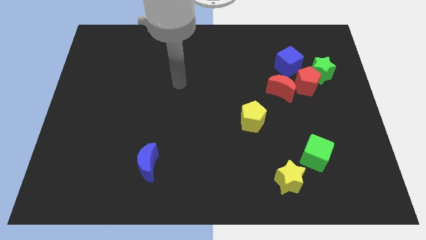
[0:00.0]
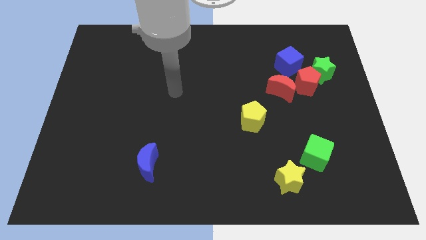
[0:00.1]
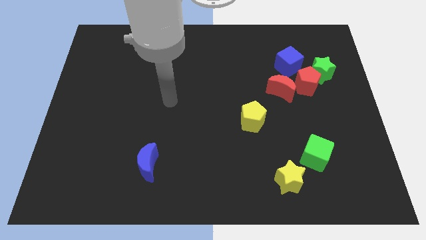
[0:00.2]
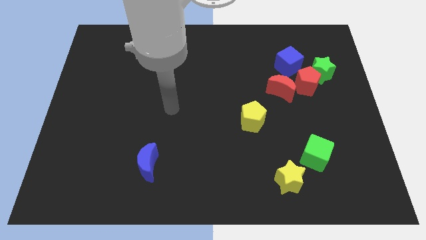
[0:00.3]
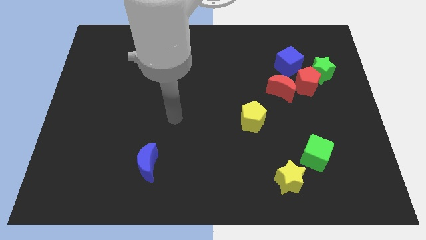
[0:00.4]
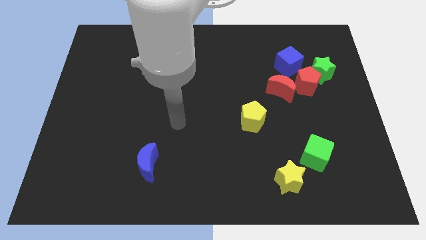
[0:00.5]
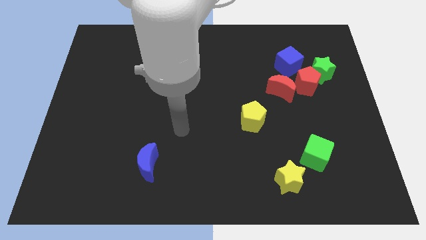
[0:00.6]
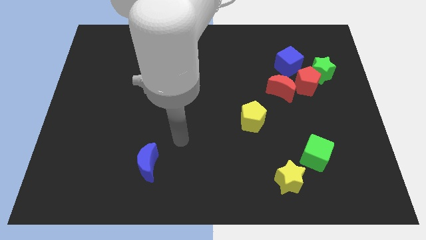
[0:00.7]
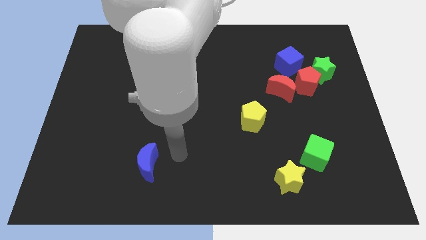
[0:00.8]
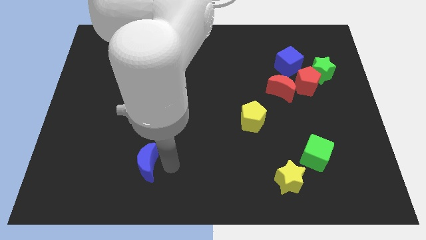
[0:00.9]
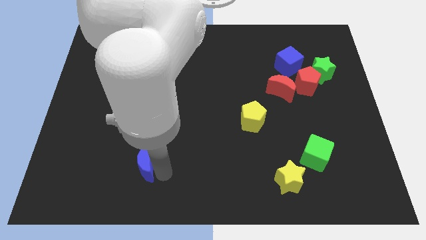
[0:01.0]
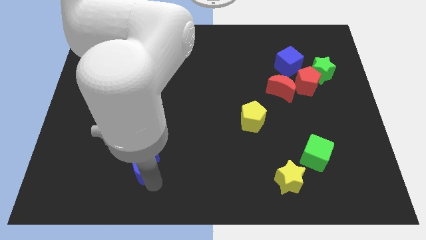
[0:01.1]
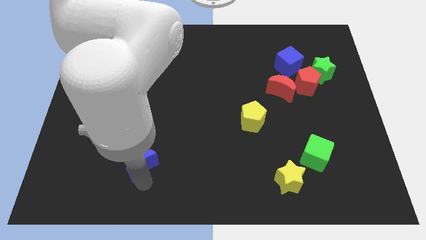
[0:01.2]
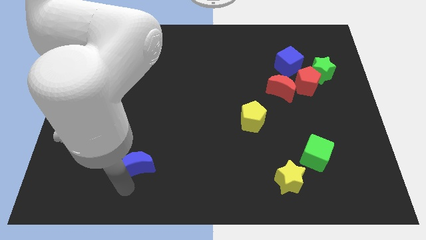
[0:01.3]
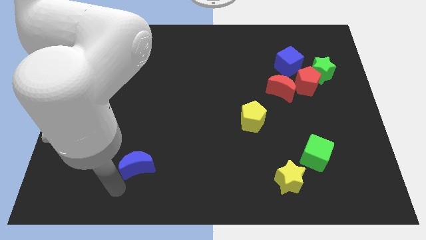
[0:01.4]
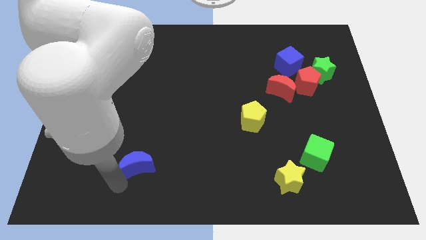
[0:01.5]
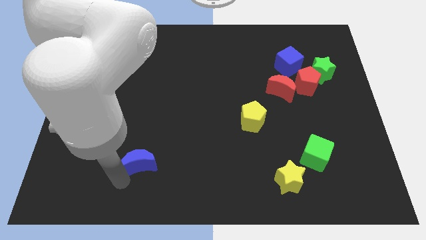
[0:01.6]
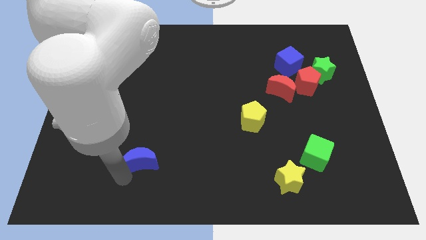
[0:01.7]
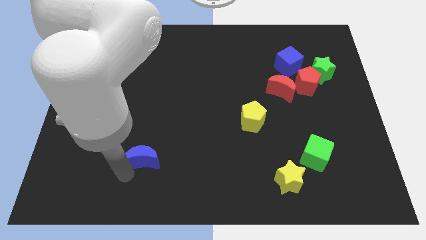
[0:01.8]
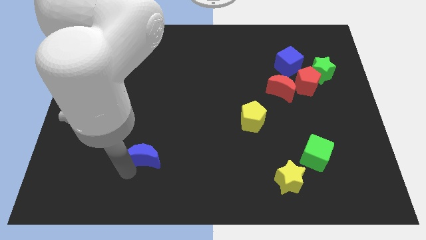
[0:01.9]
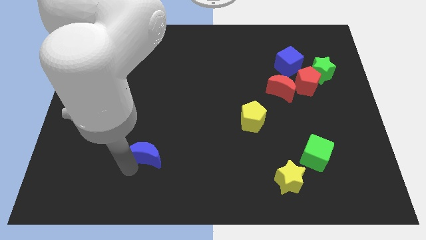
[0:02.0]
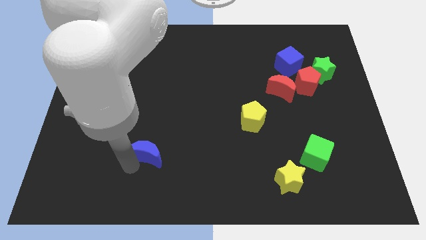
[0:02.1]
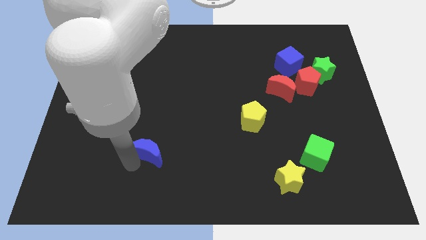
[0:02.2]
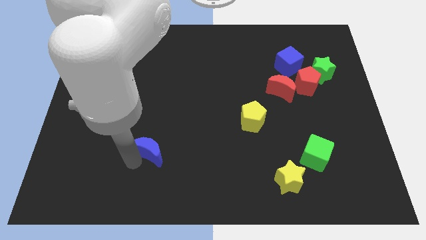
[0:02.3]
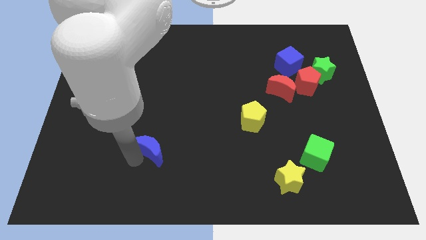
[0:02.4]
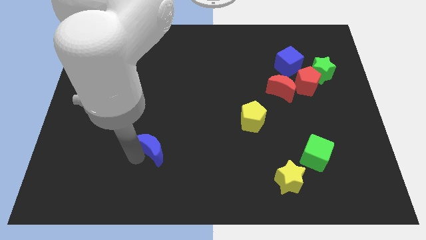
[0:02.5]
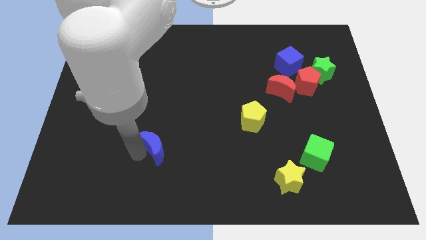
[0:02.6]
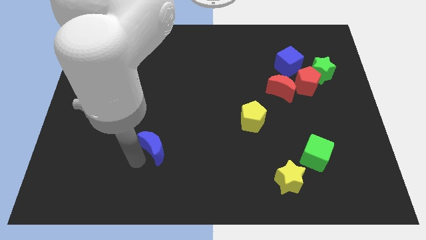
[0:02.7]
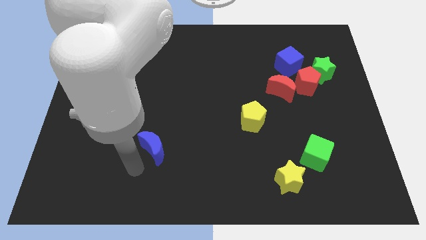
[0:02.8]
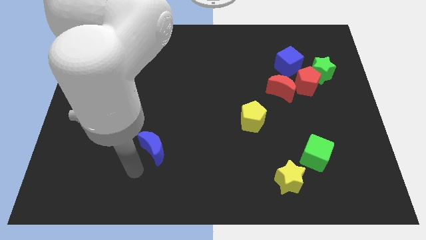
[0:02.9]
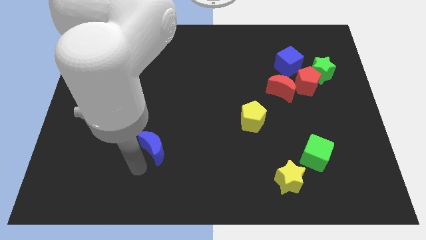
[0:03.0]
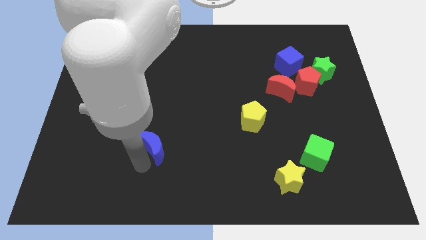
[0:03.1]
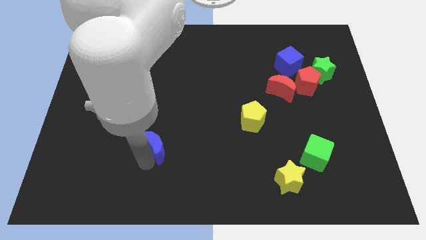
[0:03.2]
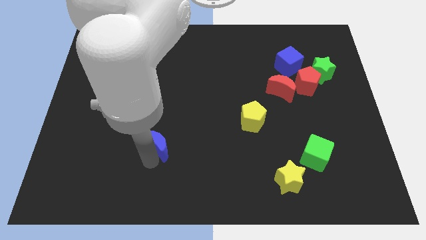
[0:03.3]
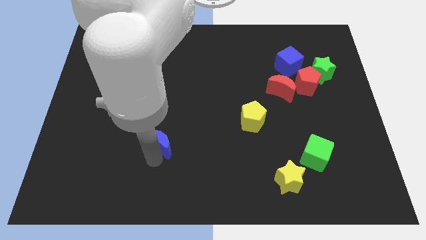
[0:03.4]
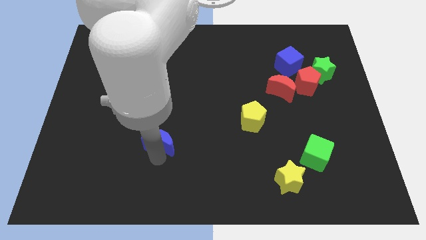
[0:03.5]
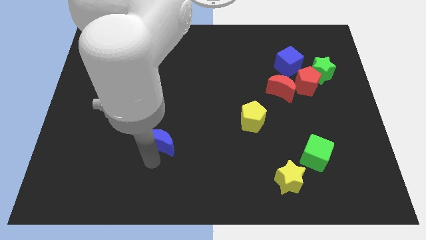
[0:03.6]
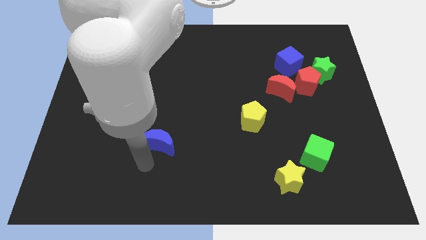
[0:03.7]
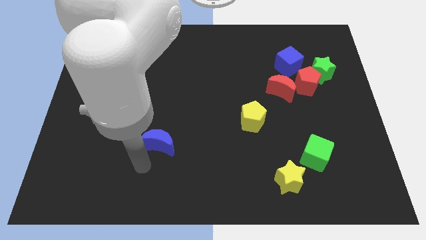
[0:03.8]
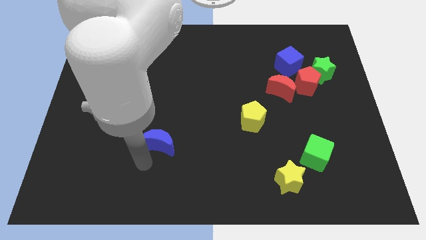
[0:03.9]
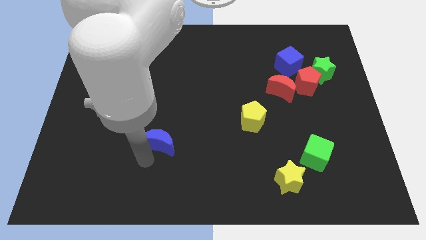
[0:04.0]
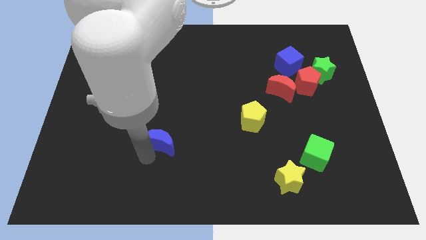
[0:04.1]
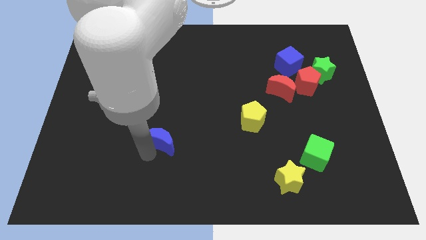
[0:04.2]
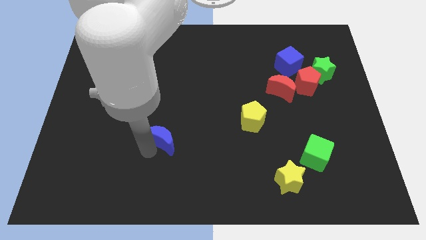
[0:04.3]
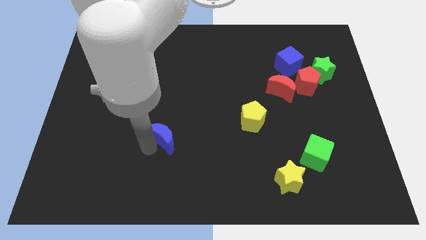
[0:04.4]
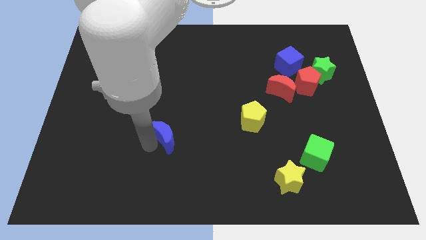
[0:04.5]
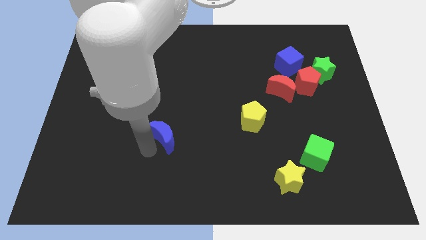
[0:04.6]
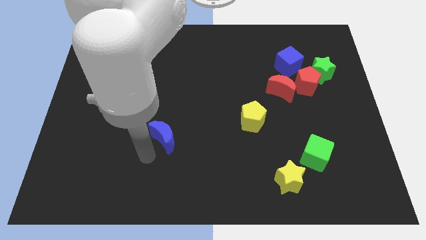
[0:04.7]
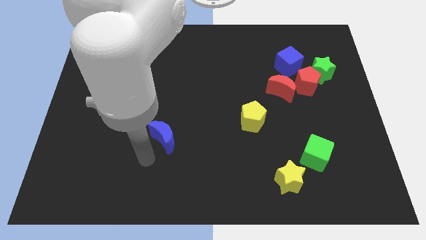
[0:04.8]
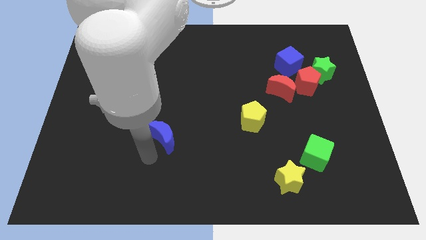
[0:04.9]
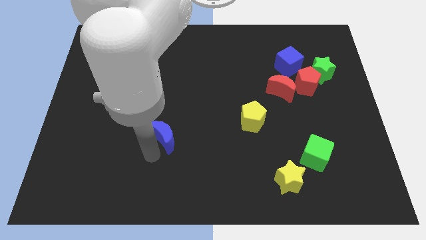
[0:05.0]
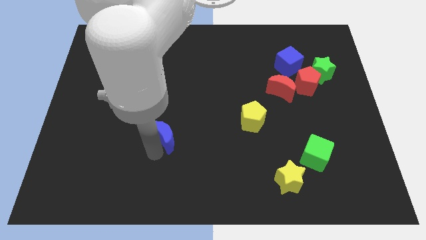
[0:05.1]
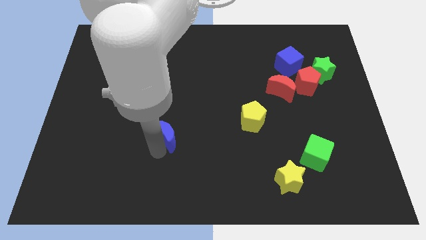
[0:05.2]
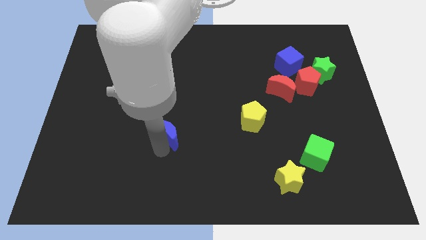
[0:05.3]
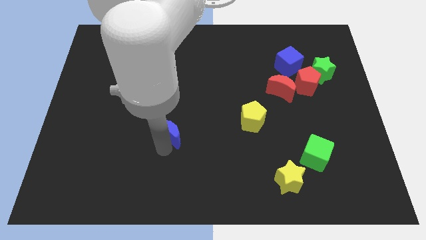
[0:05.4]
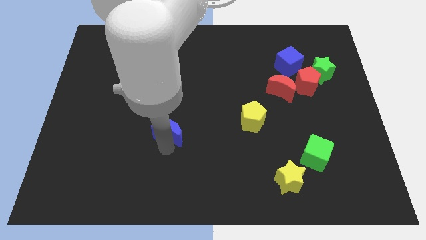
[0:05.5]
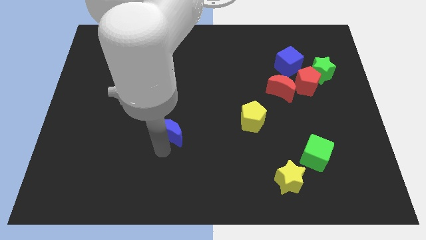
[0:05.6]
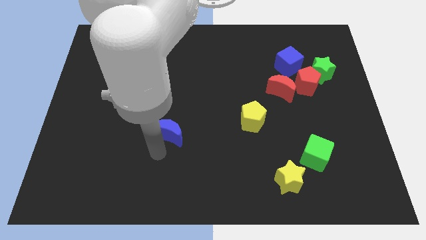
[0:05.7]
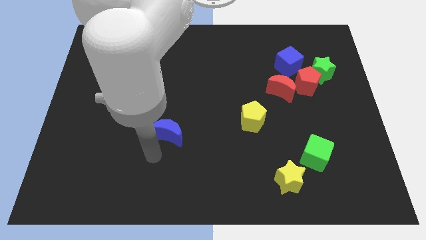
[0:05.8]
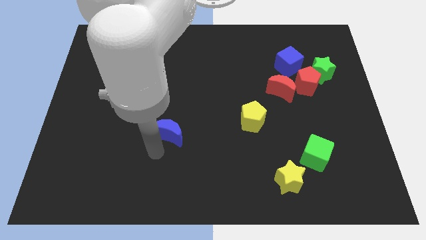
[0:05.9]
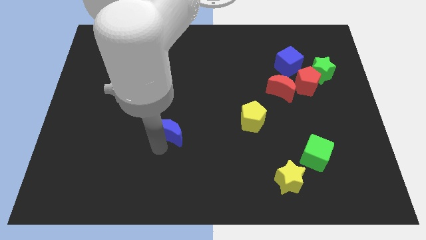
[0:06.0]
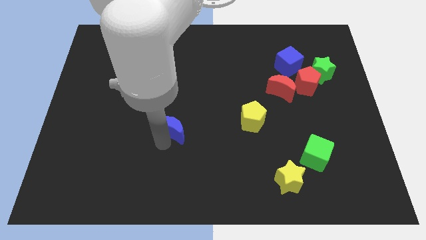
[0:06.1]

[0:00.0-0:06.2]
move the blue moon to the middle of the board
